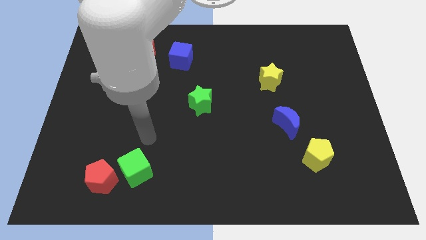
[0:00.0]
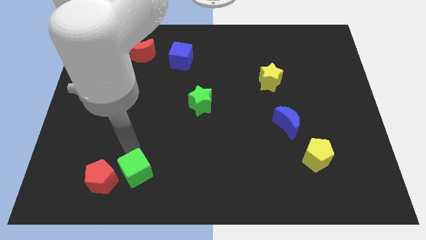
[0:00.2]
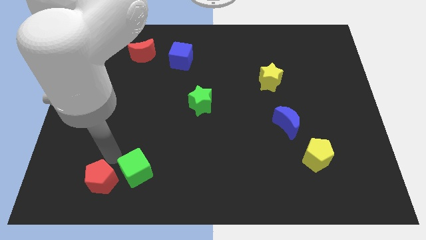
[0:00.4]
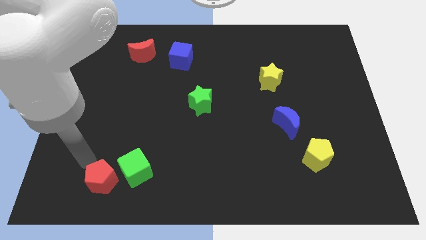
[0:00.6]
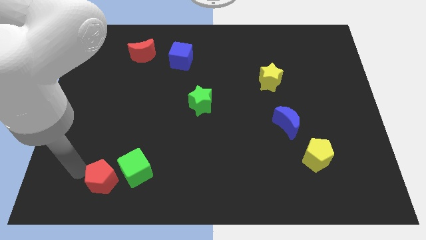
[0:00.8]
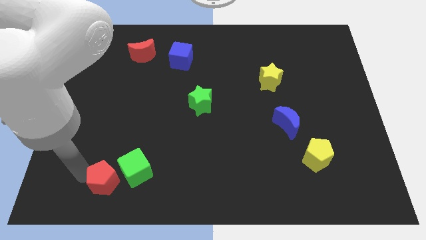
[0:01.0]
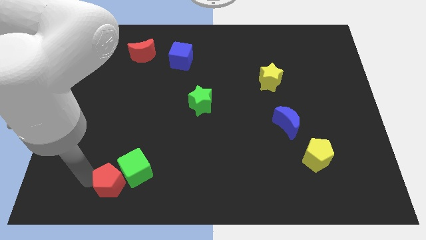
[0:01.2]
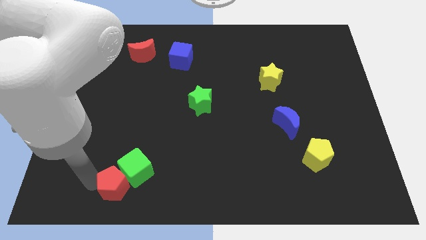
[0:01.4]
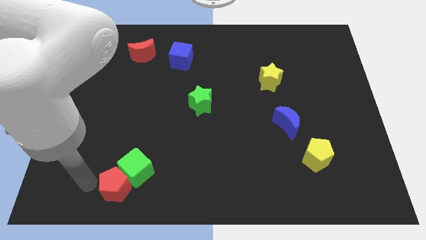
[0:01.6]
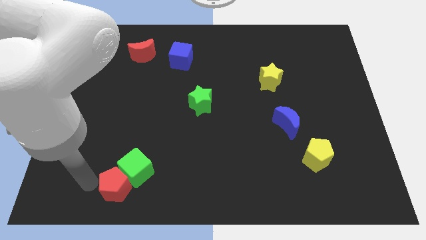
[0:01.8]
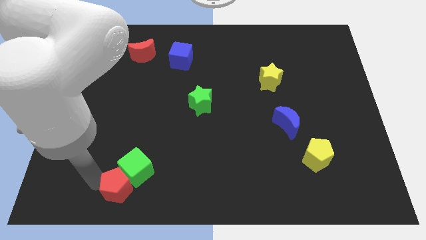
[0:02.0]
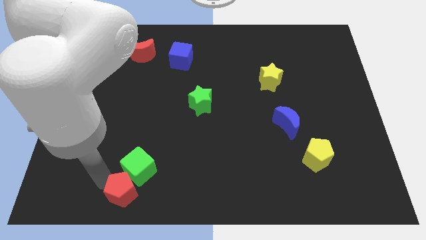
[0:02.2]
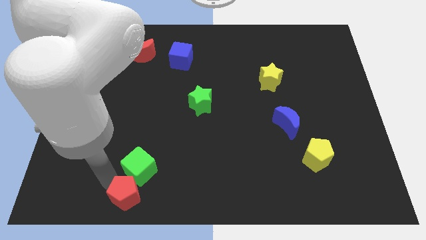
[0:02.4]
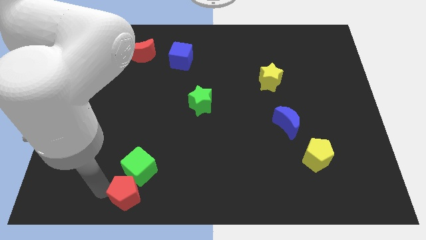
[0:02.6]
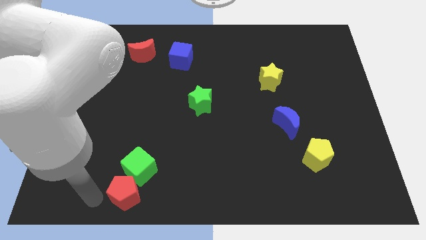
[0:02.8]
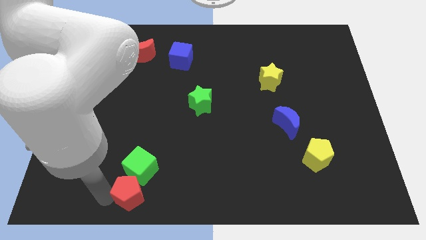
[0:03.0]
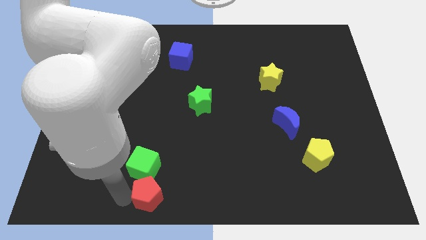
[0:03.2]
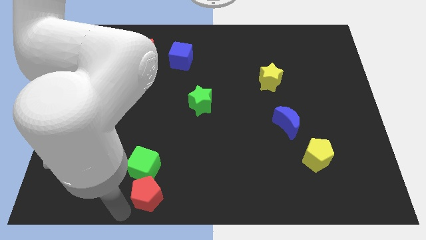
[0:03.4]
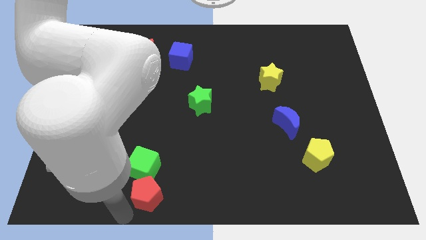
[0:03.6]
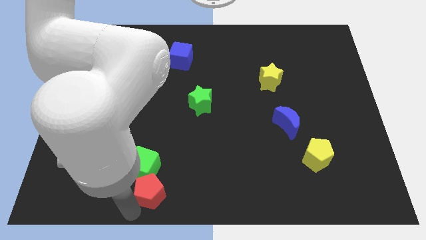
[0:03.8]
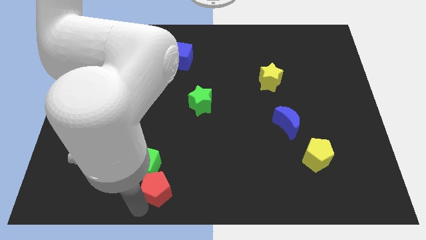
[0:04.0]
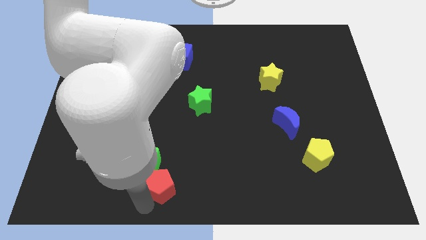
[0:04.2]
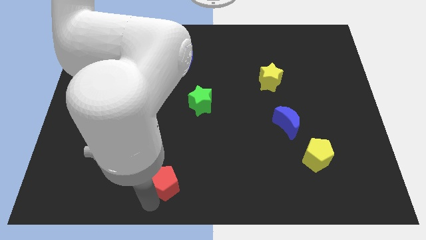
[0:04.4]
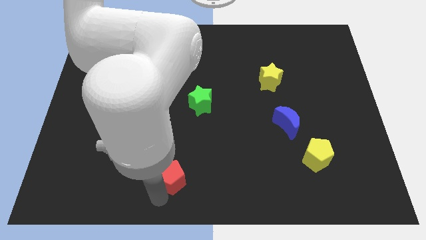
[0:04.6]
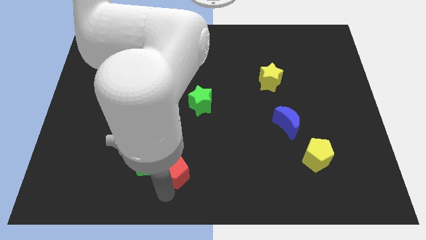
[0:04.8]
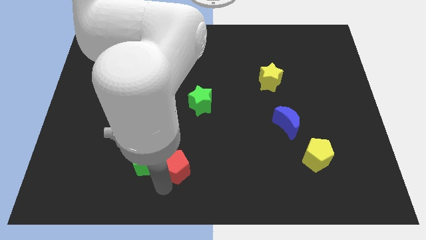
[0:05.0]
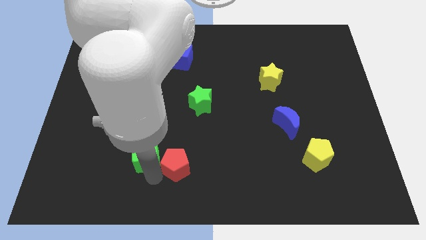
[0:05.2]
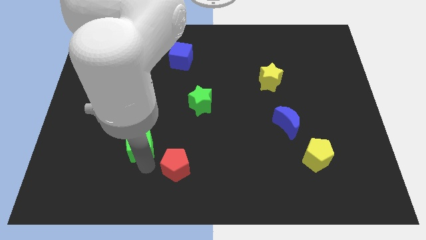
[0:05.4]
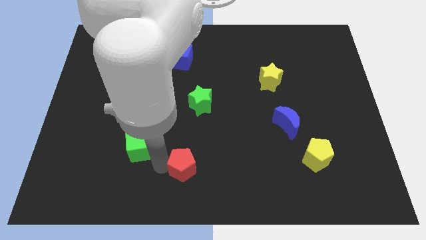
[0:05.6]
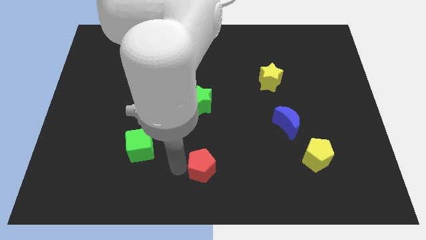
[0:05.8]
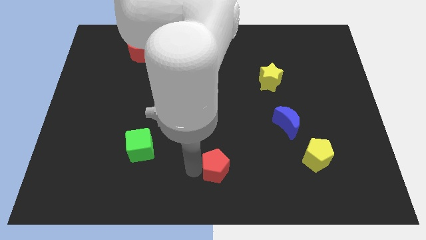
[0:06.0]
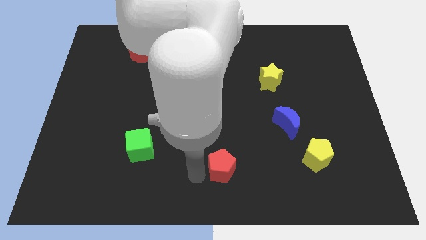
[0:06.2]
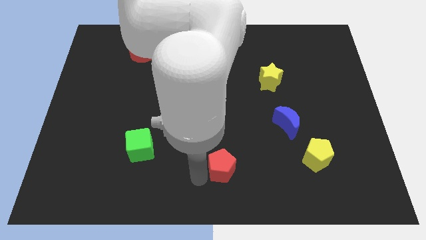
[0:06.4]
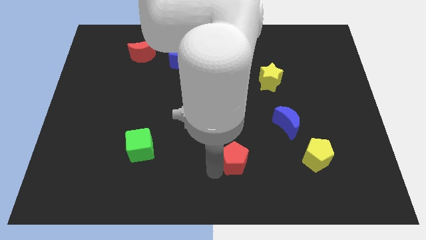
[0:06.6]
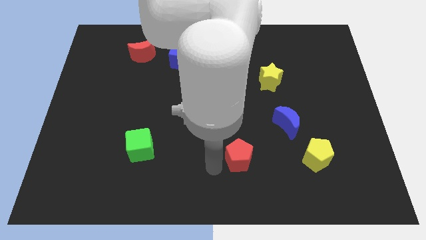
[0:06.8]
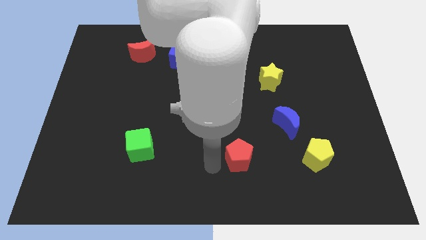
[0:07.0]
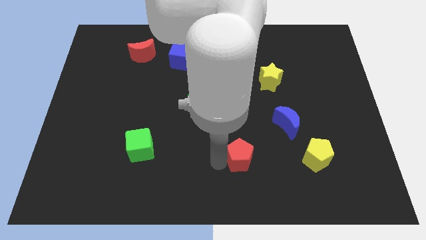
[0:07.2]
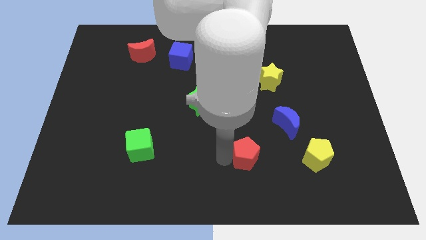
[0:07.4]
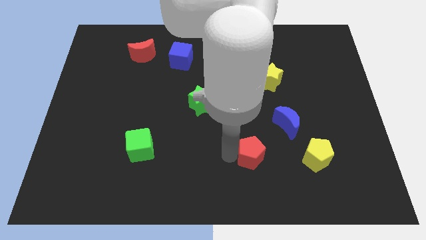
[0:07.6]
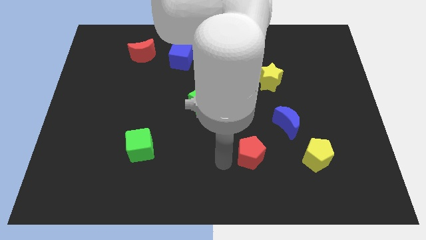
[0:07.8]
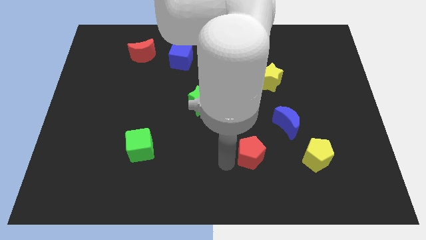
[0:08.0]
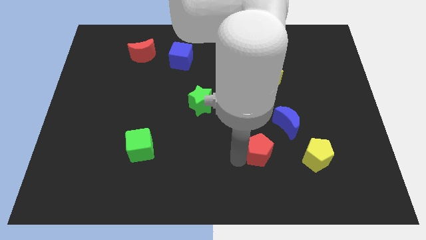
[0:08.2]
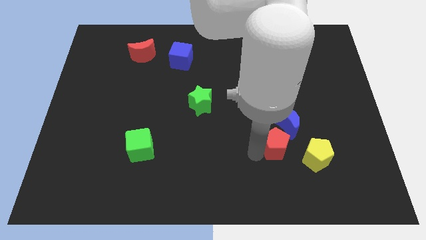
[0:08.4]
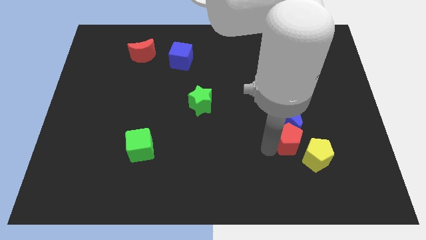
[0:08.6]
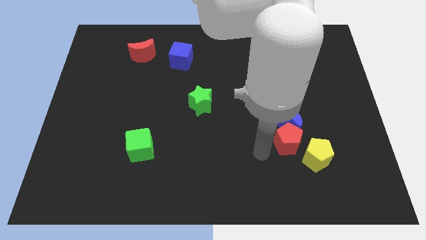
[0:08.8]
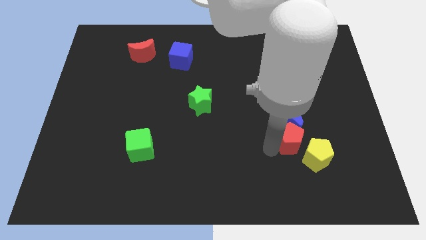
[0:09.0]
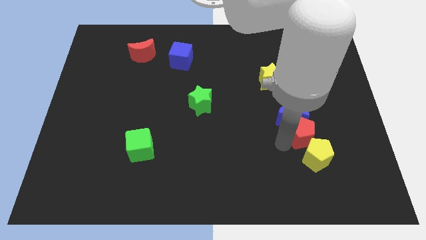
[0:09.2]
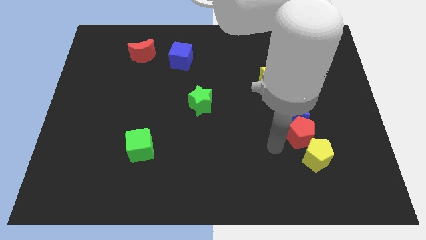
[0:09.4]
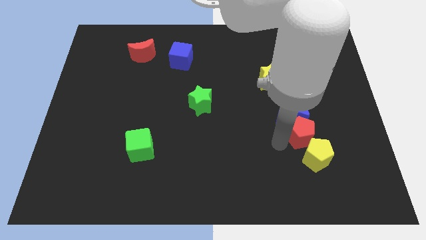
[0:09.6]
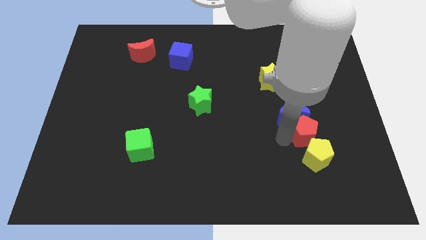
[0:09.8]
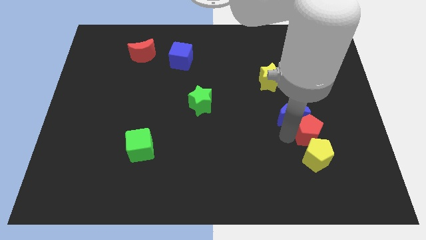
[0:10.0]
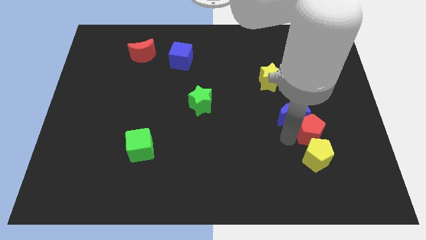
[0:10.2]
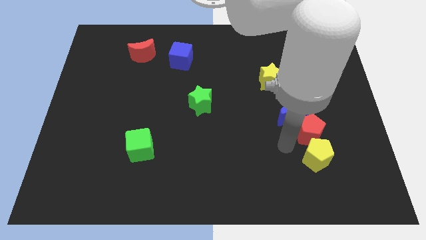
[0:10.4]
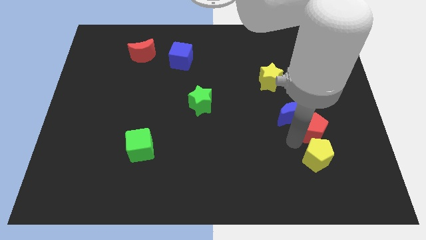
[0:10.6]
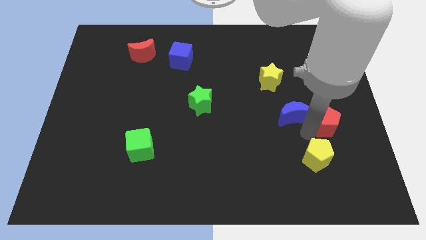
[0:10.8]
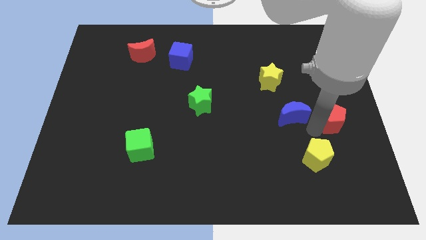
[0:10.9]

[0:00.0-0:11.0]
slide the red pentagon to the right side
